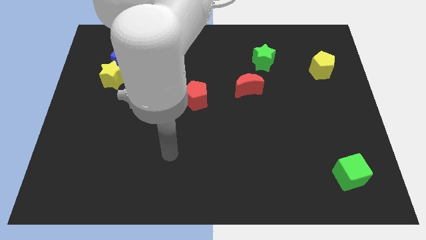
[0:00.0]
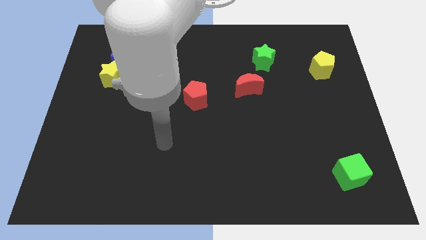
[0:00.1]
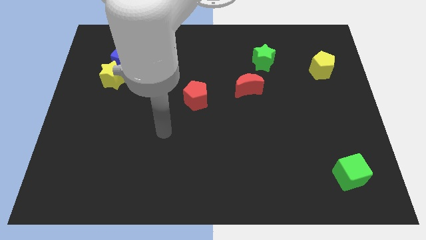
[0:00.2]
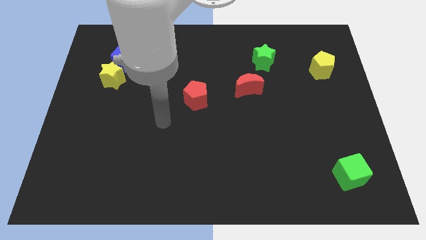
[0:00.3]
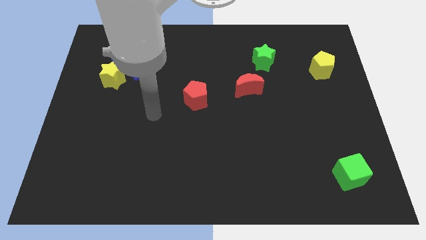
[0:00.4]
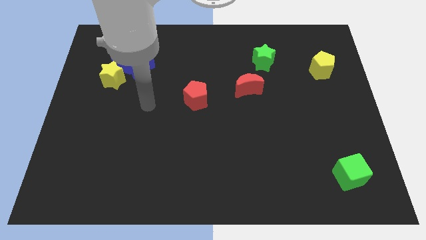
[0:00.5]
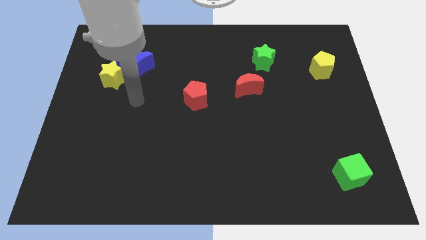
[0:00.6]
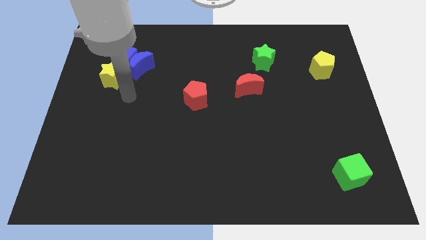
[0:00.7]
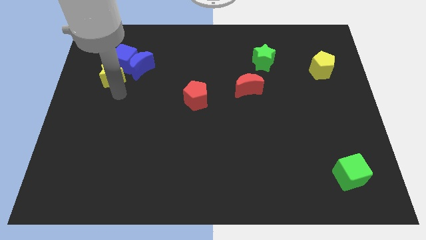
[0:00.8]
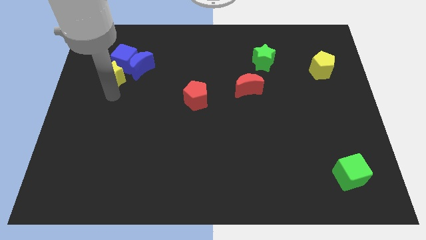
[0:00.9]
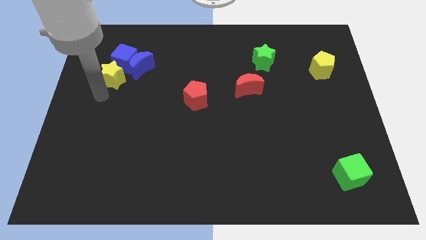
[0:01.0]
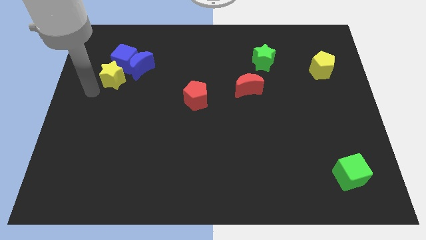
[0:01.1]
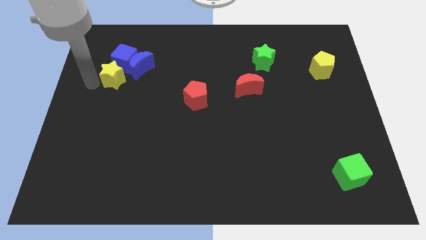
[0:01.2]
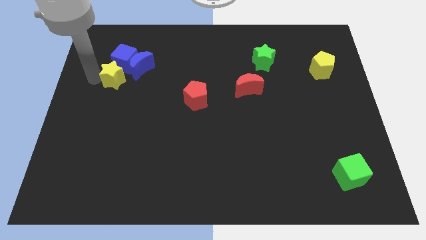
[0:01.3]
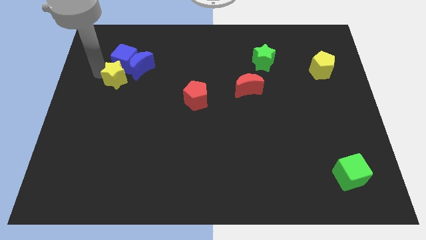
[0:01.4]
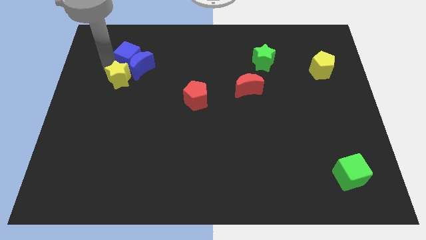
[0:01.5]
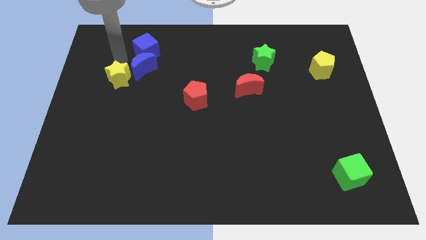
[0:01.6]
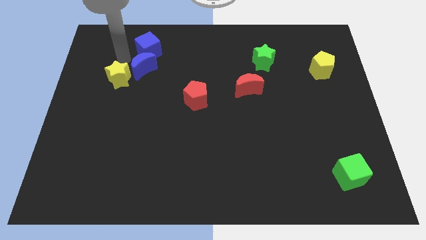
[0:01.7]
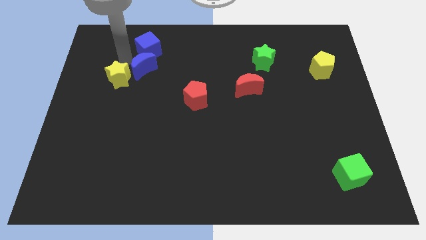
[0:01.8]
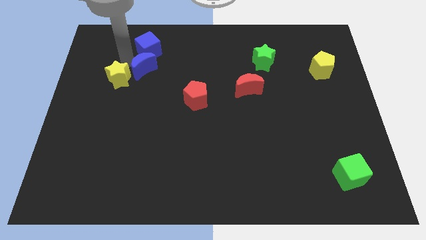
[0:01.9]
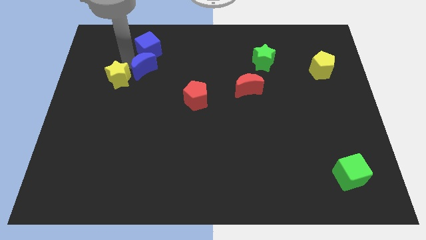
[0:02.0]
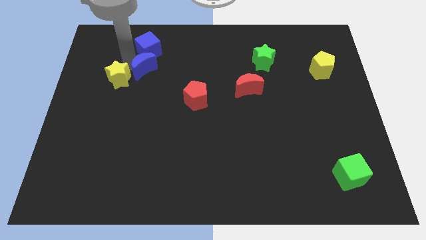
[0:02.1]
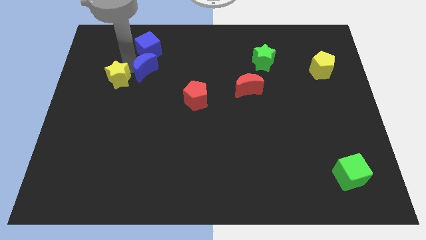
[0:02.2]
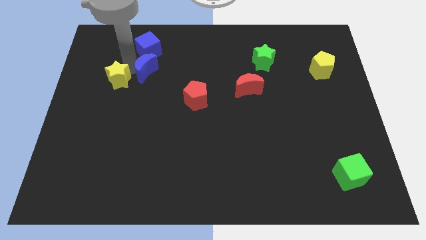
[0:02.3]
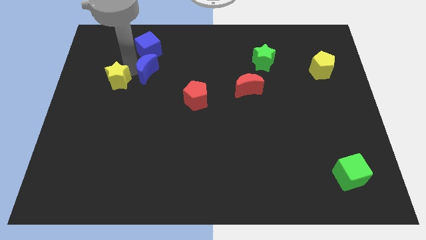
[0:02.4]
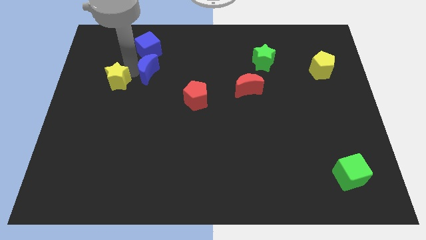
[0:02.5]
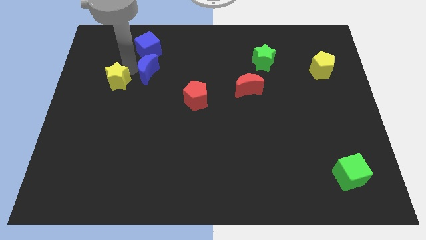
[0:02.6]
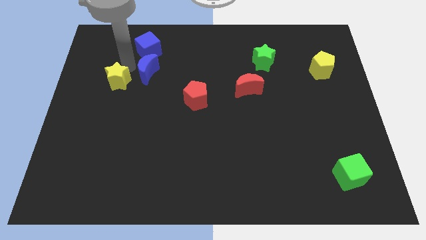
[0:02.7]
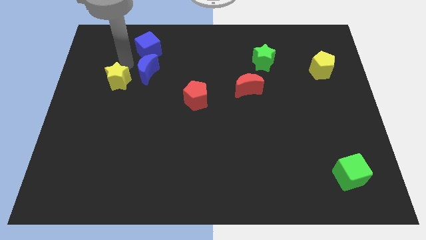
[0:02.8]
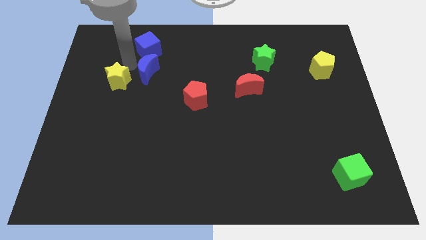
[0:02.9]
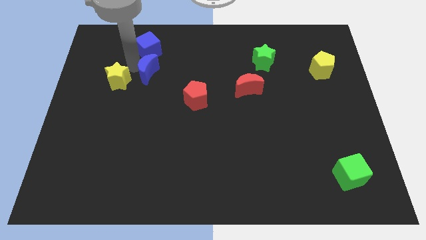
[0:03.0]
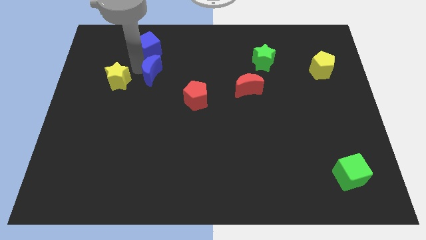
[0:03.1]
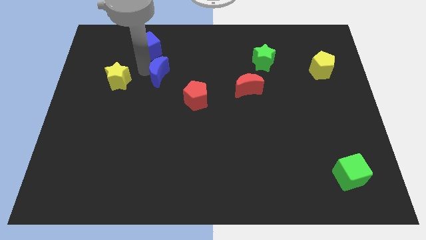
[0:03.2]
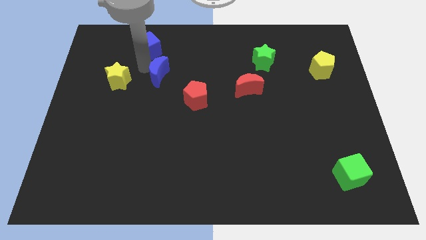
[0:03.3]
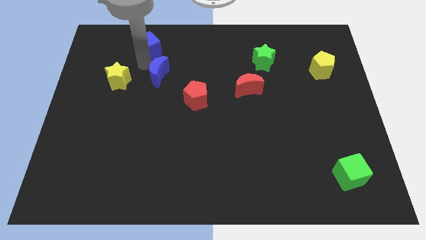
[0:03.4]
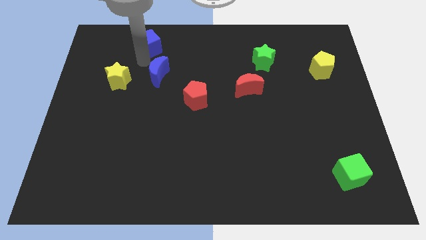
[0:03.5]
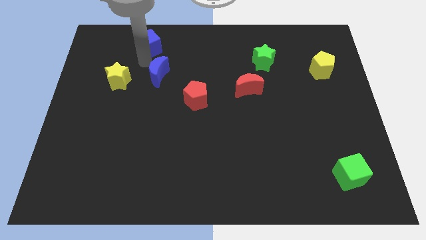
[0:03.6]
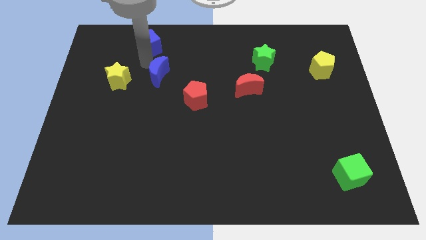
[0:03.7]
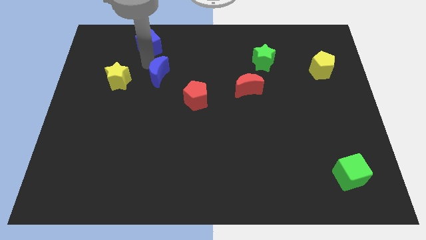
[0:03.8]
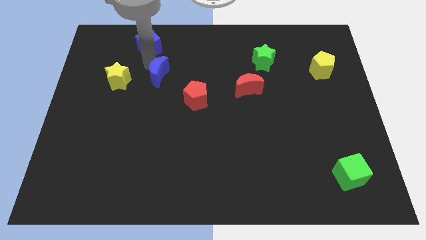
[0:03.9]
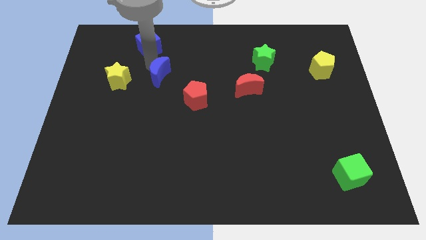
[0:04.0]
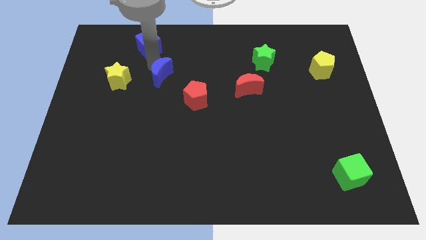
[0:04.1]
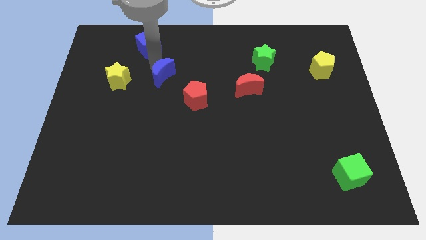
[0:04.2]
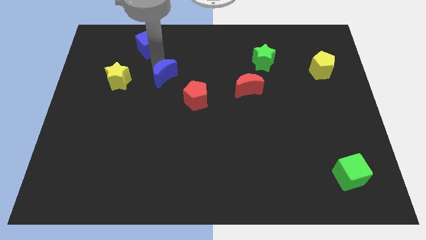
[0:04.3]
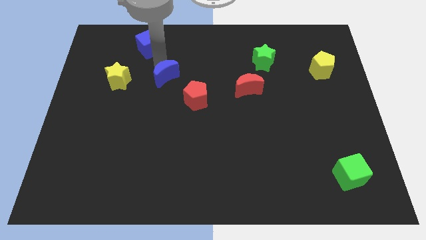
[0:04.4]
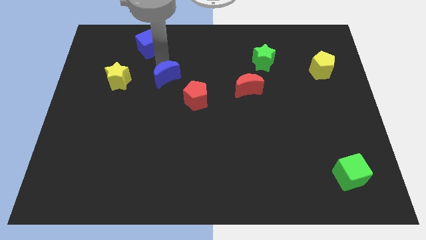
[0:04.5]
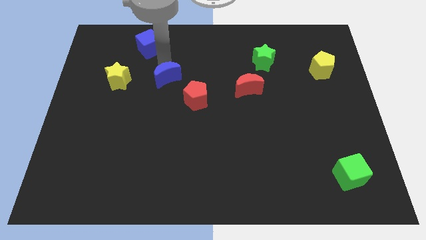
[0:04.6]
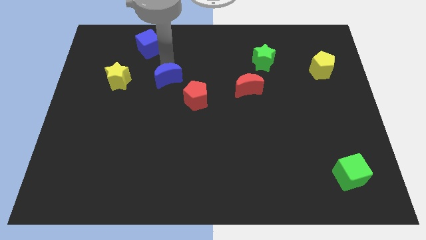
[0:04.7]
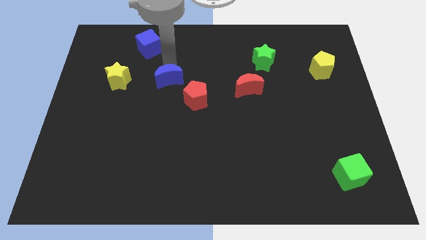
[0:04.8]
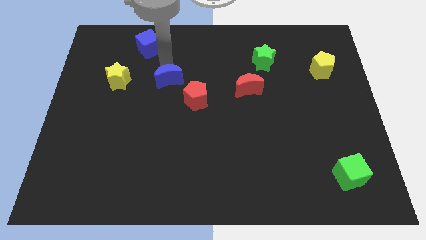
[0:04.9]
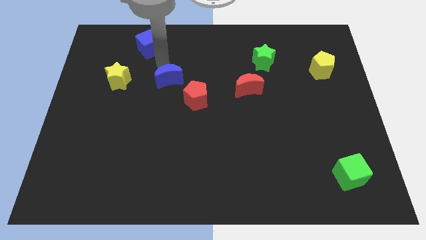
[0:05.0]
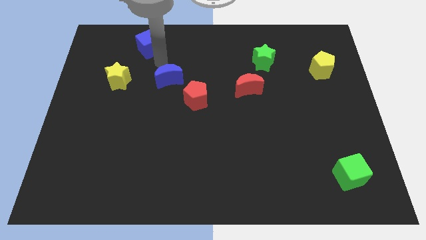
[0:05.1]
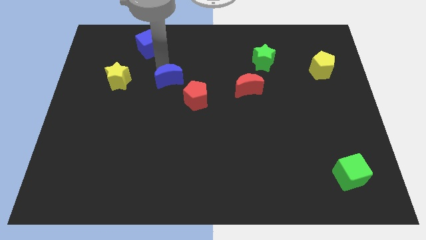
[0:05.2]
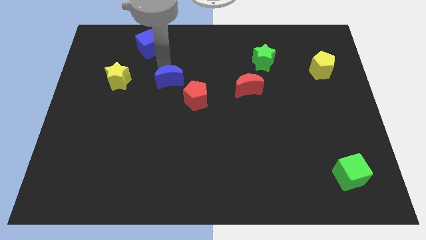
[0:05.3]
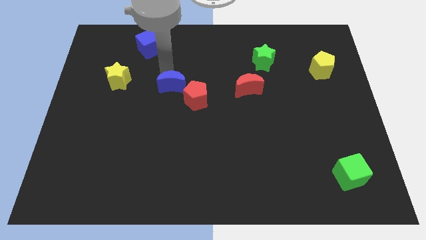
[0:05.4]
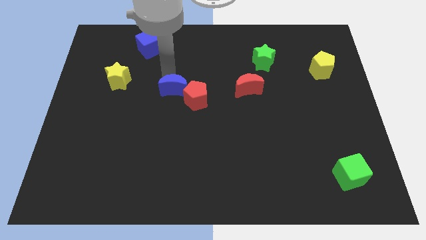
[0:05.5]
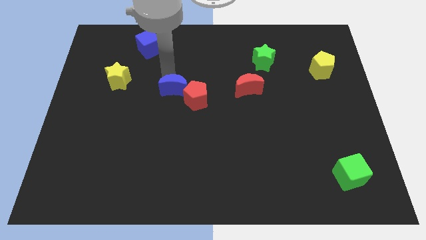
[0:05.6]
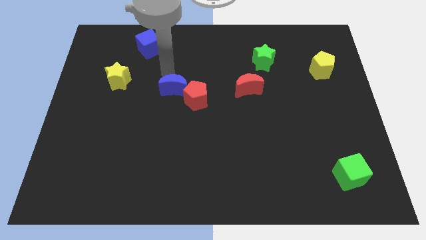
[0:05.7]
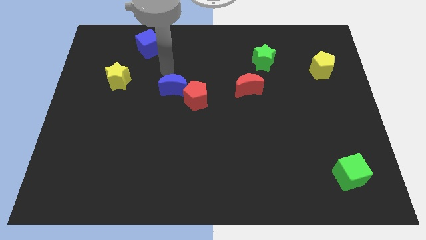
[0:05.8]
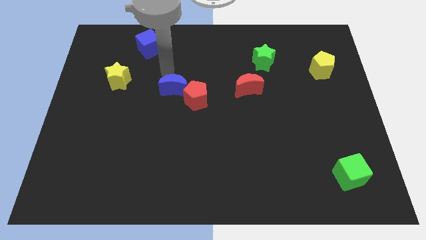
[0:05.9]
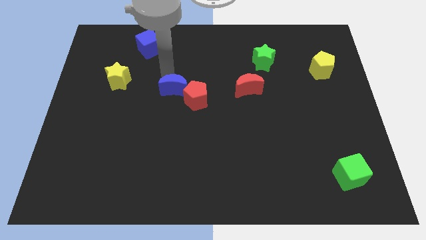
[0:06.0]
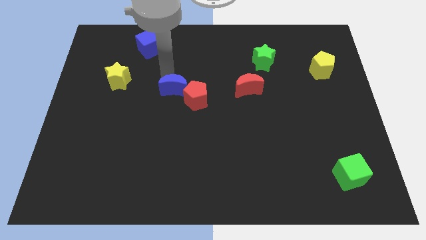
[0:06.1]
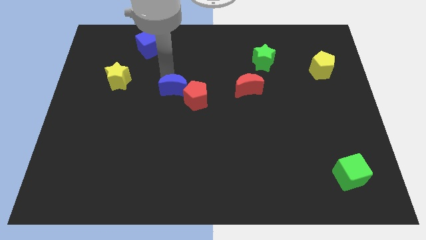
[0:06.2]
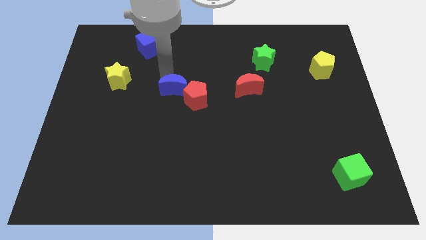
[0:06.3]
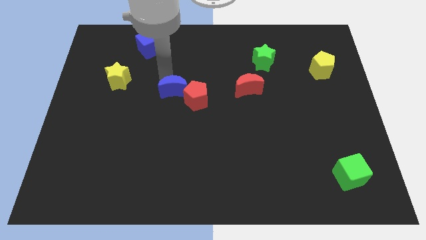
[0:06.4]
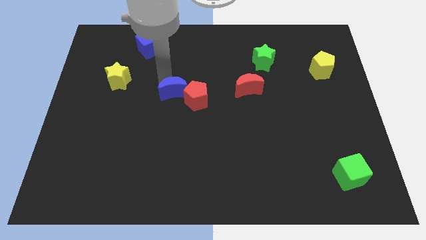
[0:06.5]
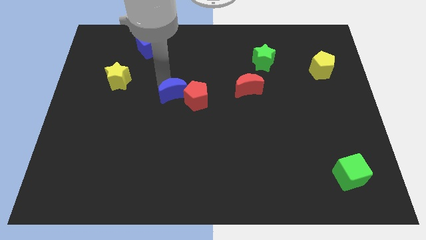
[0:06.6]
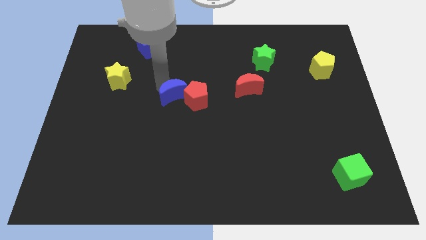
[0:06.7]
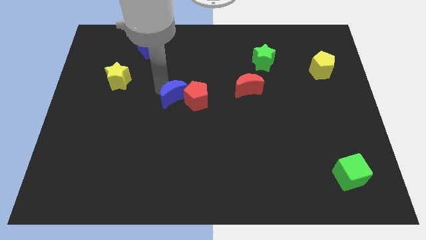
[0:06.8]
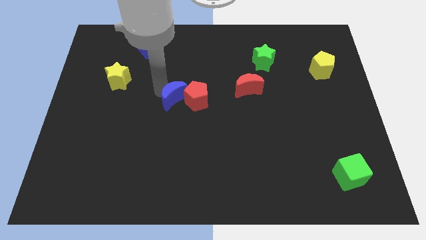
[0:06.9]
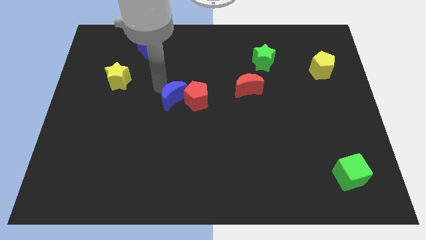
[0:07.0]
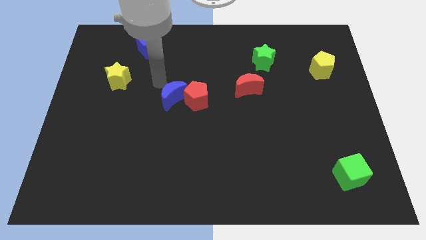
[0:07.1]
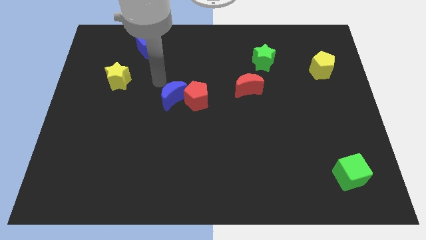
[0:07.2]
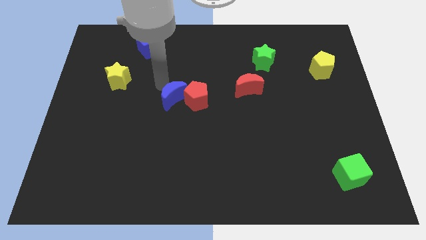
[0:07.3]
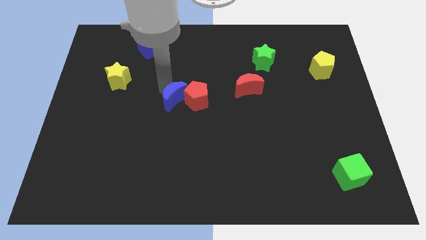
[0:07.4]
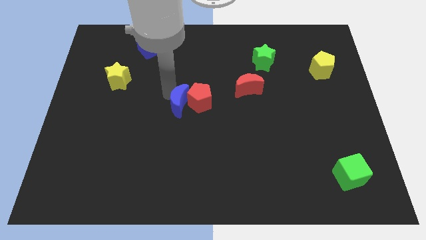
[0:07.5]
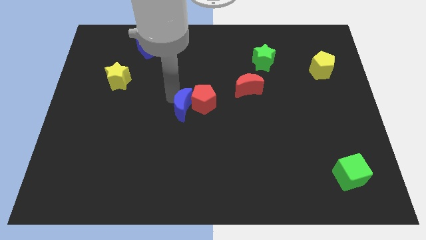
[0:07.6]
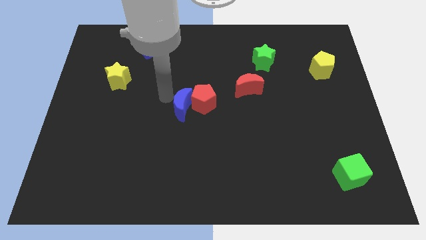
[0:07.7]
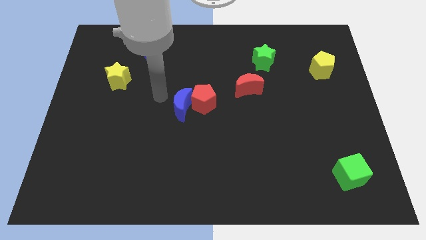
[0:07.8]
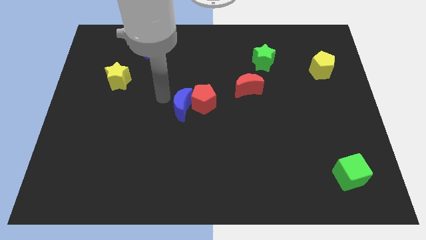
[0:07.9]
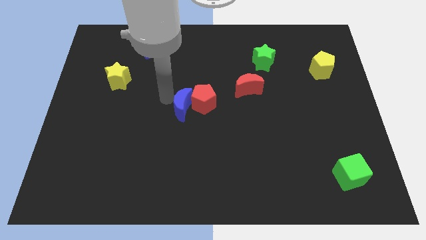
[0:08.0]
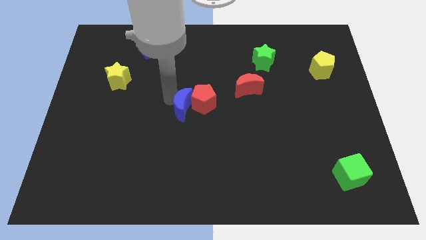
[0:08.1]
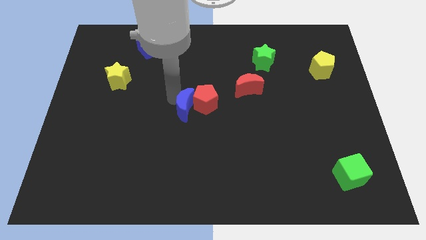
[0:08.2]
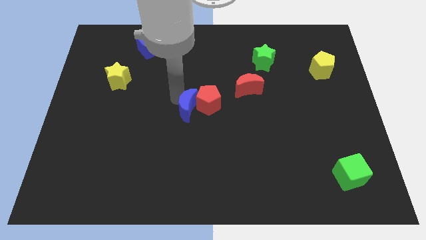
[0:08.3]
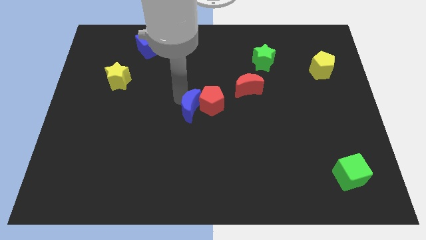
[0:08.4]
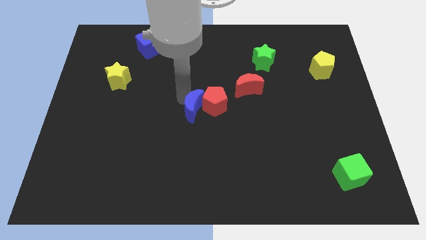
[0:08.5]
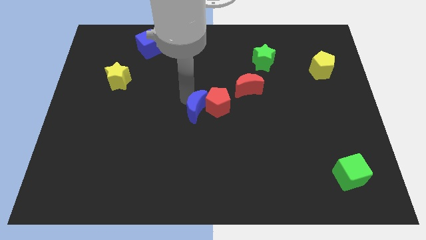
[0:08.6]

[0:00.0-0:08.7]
push the blue moon downwards and to the right
